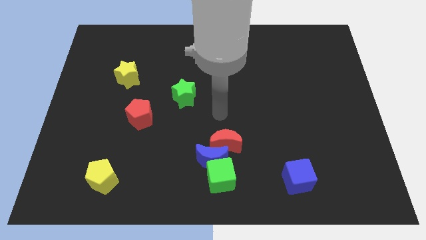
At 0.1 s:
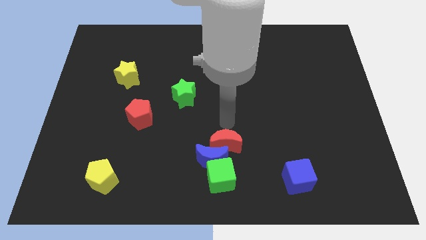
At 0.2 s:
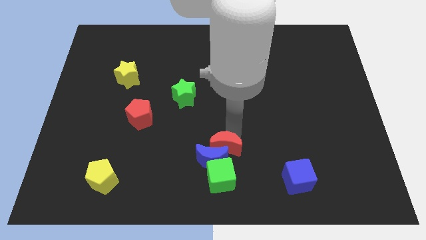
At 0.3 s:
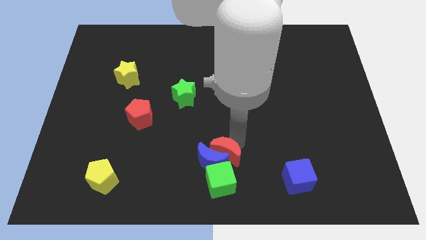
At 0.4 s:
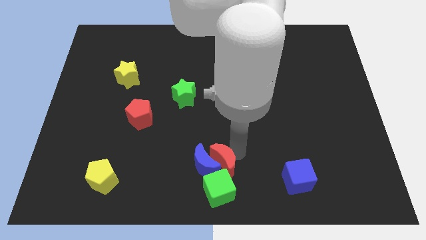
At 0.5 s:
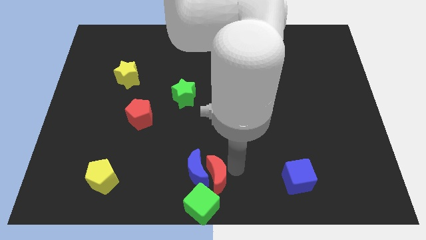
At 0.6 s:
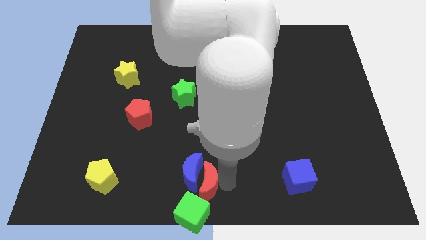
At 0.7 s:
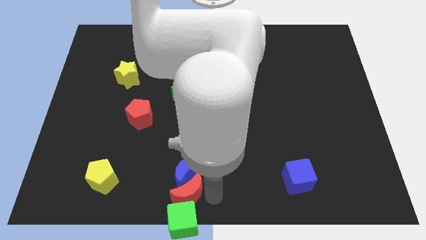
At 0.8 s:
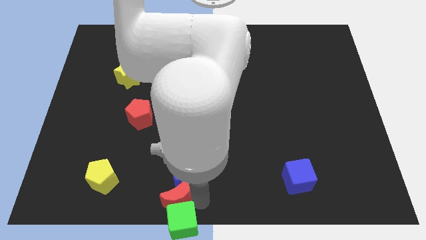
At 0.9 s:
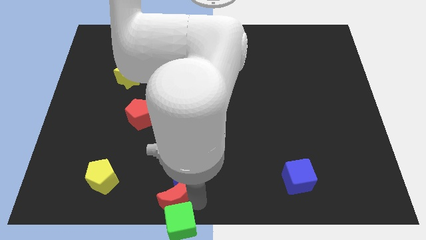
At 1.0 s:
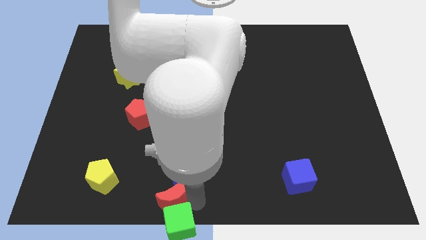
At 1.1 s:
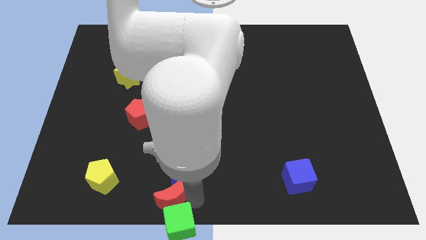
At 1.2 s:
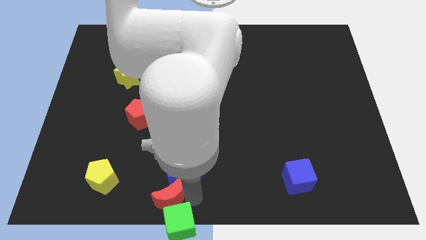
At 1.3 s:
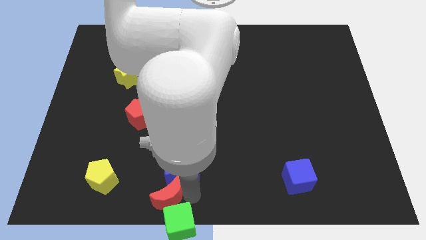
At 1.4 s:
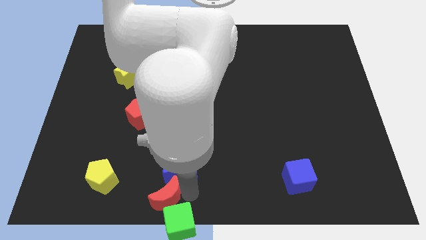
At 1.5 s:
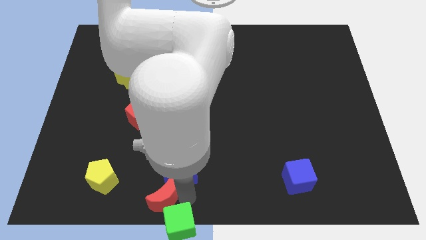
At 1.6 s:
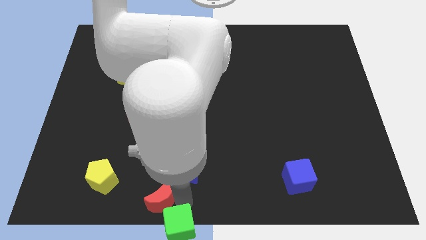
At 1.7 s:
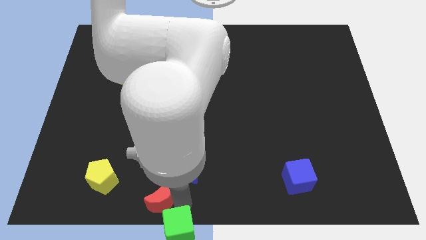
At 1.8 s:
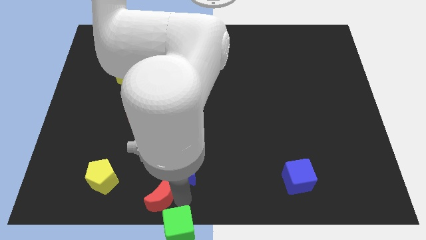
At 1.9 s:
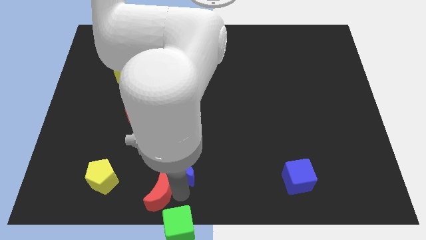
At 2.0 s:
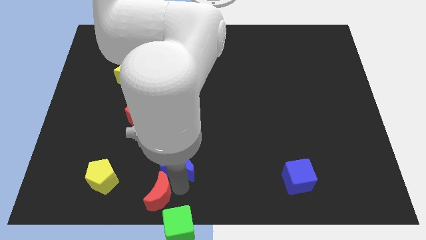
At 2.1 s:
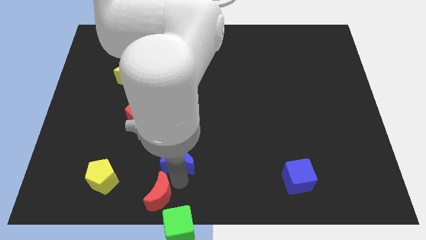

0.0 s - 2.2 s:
pull the blue moon apart from the green cube and red moon

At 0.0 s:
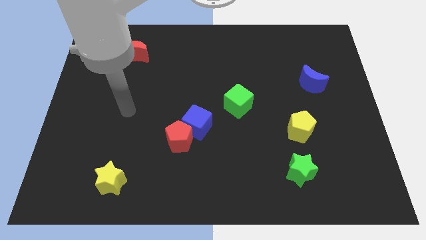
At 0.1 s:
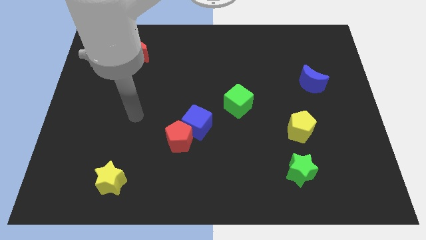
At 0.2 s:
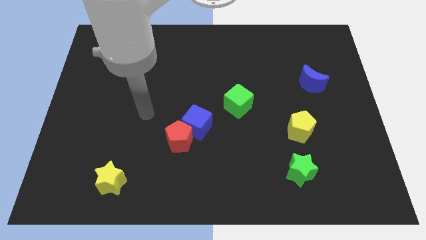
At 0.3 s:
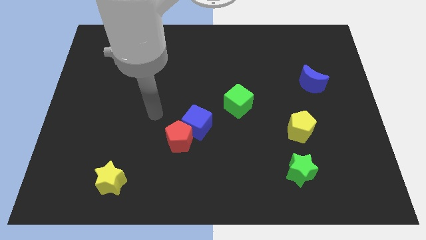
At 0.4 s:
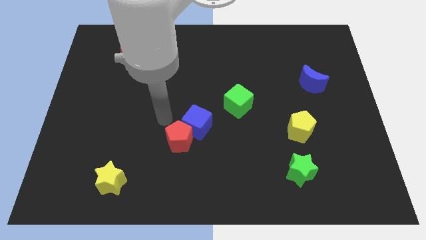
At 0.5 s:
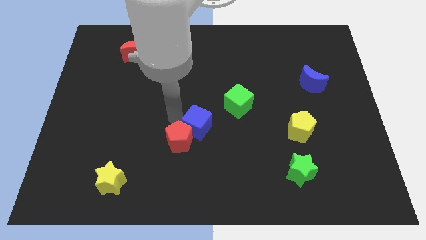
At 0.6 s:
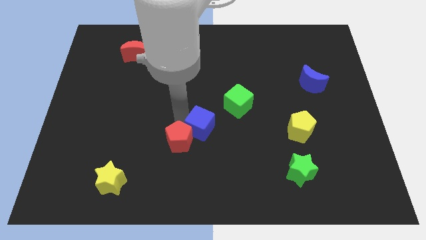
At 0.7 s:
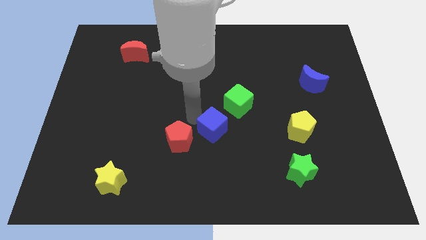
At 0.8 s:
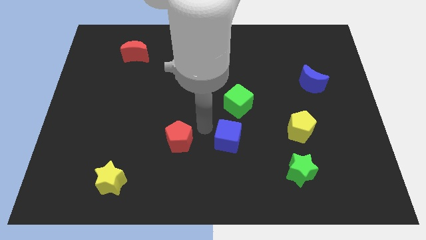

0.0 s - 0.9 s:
separate the red pentagon from the blue cube

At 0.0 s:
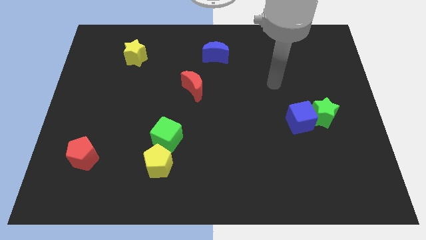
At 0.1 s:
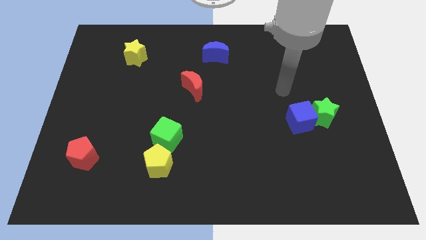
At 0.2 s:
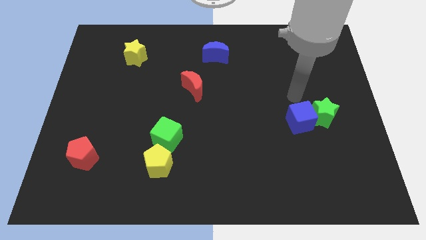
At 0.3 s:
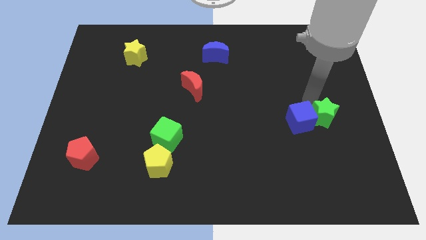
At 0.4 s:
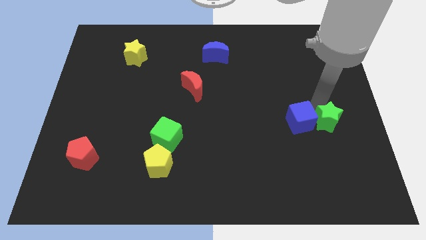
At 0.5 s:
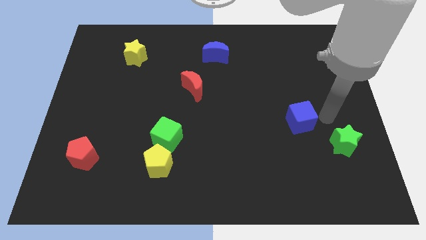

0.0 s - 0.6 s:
move the blue cube away from the green star

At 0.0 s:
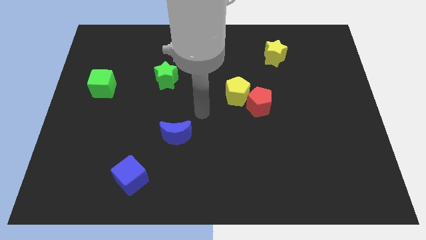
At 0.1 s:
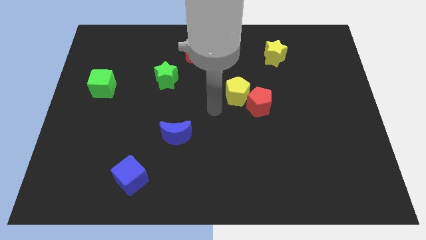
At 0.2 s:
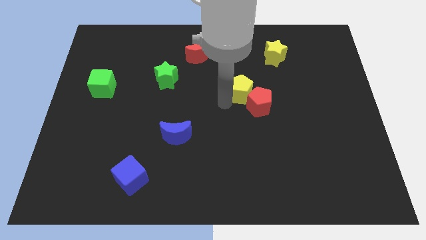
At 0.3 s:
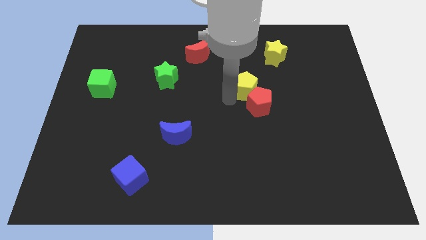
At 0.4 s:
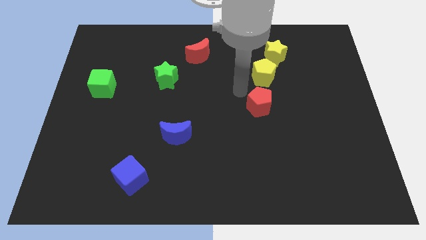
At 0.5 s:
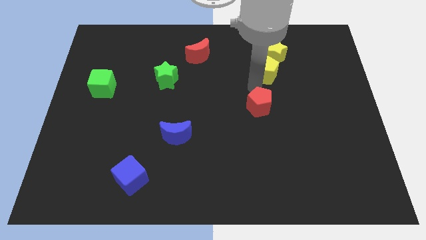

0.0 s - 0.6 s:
move the red pentagon away from the yellow pentagon

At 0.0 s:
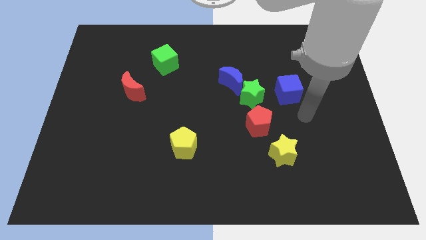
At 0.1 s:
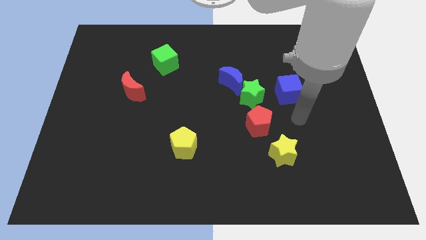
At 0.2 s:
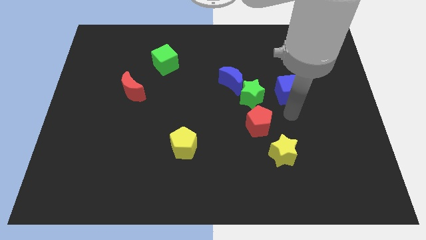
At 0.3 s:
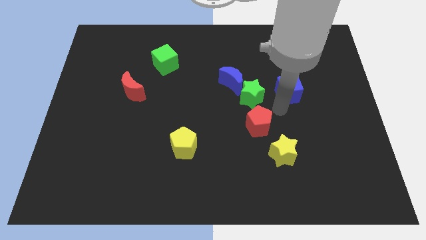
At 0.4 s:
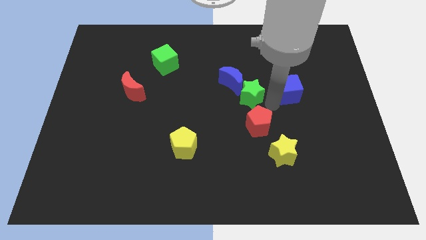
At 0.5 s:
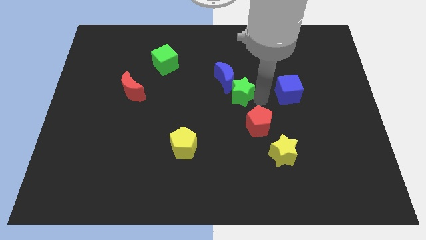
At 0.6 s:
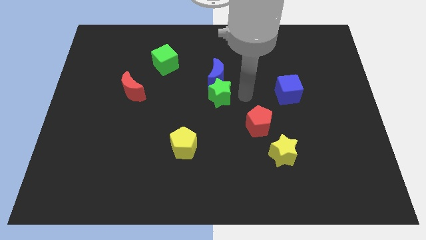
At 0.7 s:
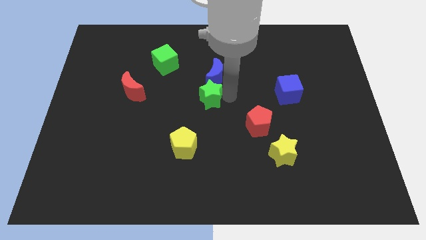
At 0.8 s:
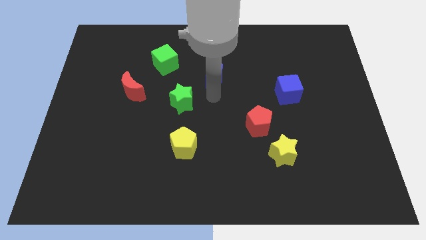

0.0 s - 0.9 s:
separate the blue moon from the green star

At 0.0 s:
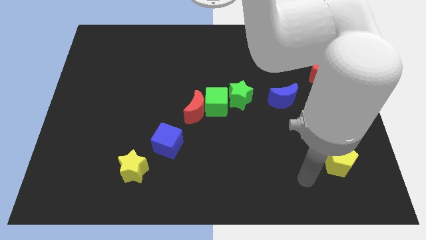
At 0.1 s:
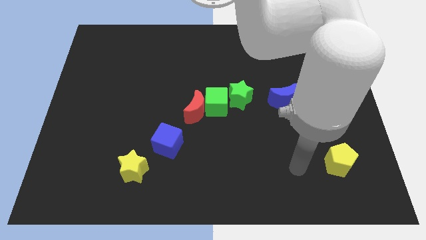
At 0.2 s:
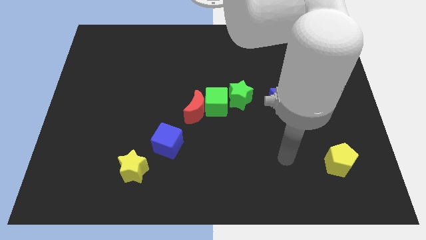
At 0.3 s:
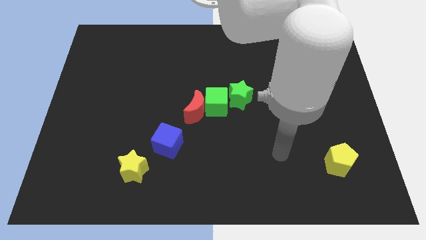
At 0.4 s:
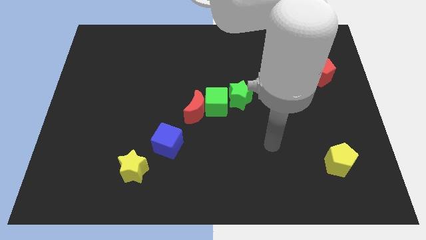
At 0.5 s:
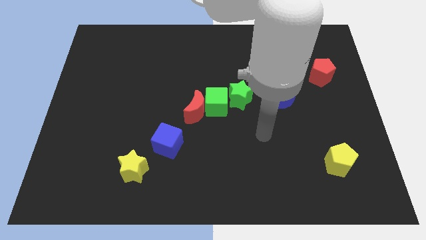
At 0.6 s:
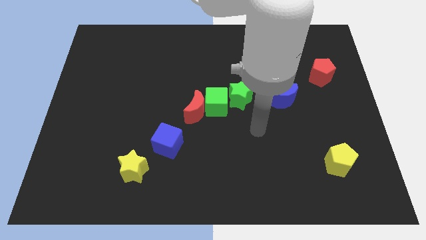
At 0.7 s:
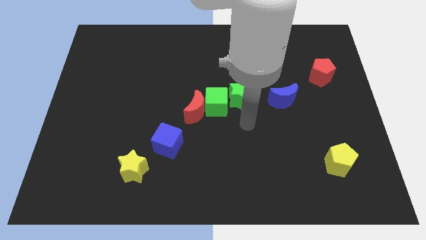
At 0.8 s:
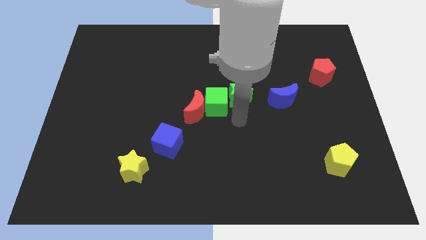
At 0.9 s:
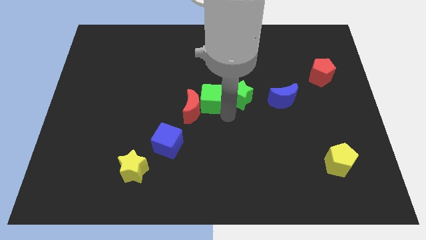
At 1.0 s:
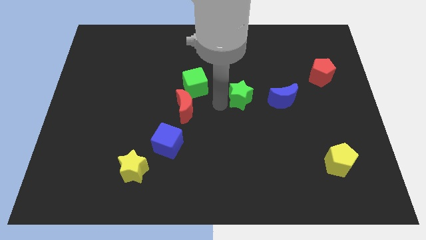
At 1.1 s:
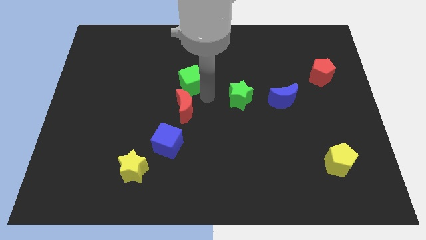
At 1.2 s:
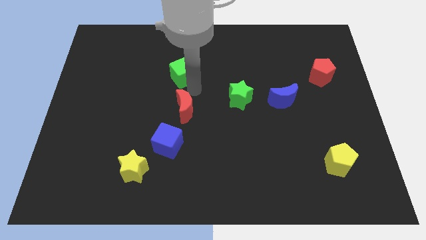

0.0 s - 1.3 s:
separate the red moon from the green cube

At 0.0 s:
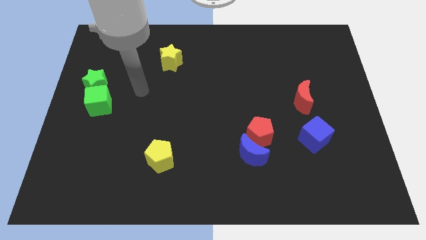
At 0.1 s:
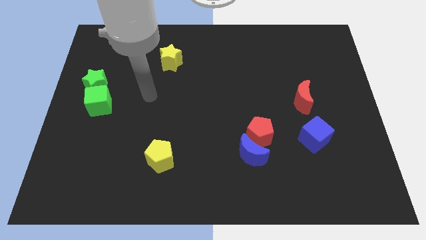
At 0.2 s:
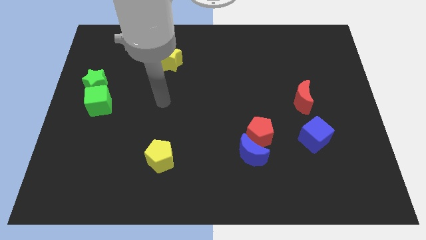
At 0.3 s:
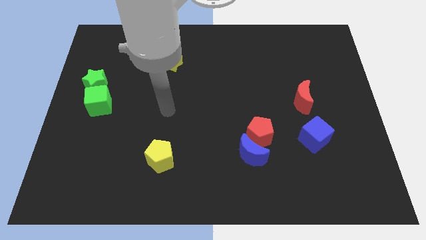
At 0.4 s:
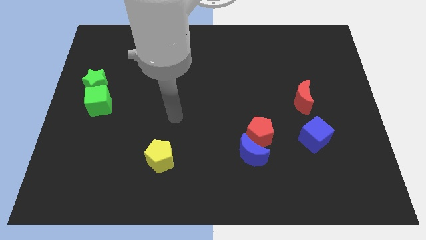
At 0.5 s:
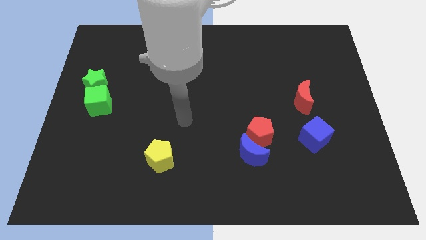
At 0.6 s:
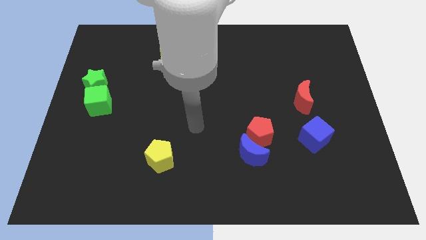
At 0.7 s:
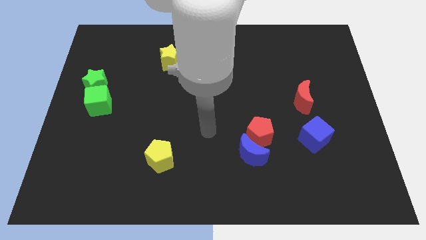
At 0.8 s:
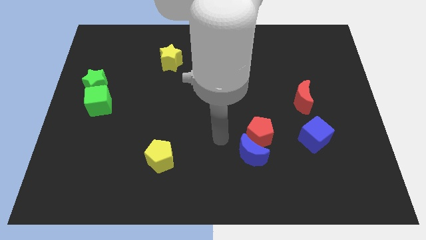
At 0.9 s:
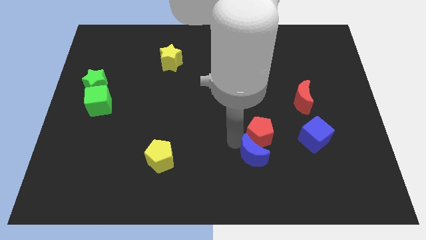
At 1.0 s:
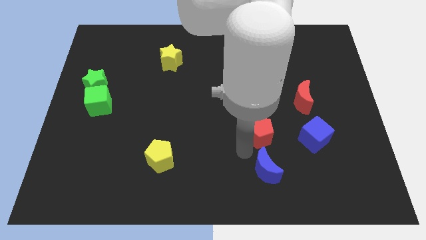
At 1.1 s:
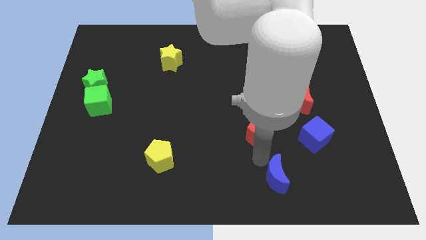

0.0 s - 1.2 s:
separate the red pentagon from the blue moon

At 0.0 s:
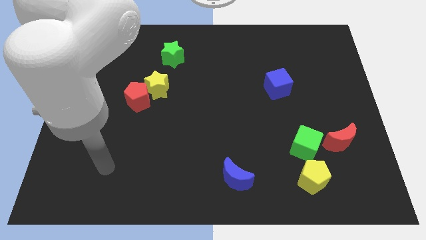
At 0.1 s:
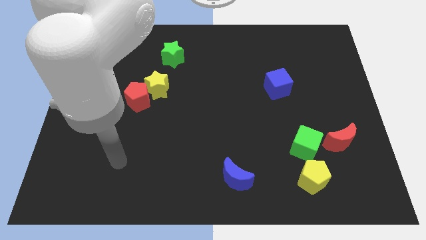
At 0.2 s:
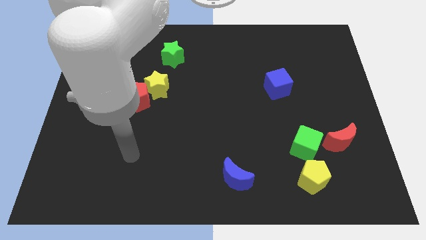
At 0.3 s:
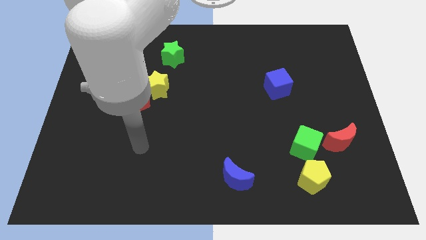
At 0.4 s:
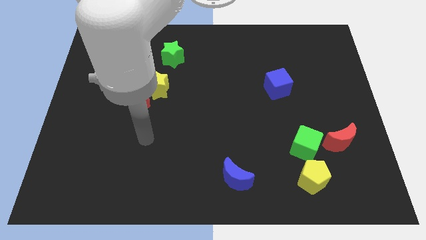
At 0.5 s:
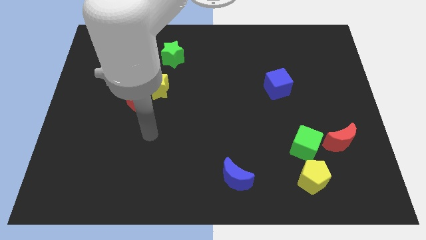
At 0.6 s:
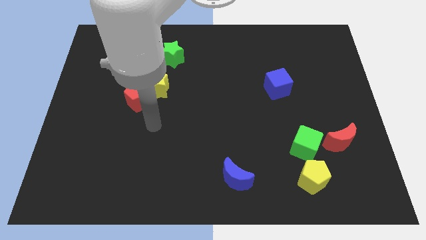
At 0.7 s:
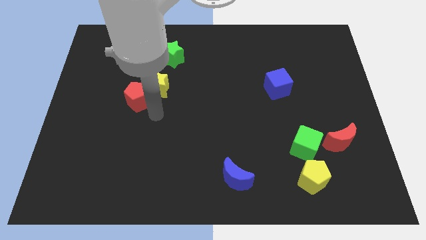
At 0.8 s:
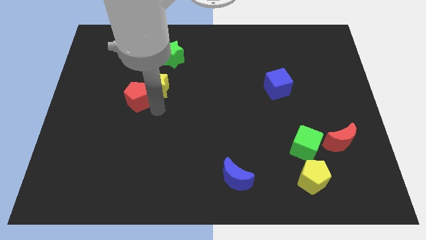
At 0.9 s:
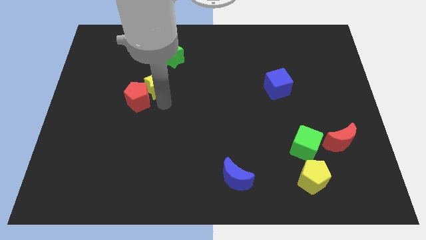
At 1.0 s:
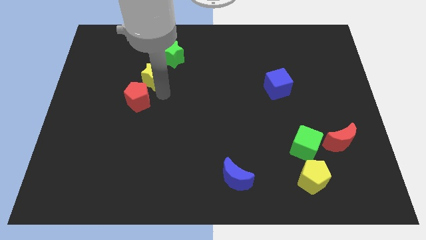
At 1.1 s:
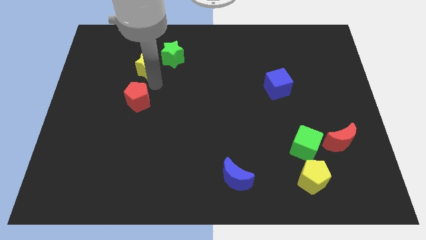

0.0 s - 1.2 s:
pull the red pentagon apart from the yellow star

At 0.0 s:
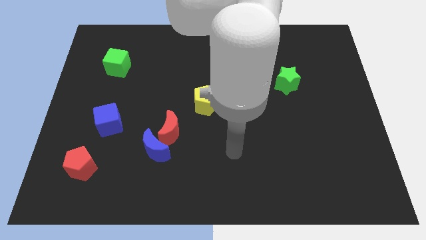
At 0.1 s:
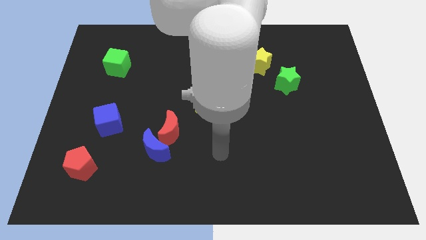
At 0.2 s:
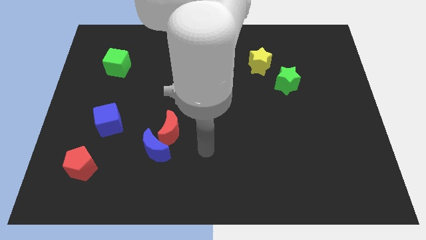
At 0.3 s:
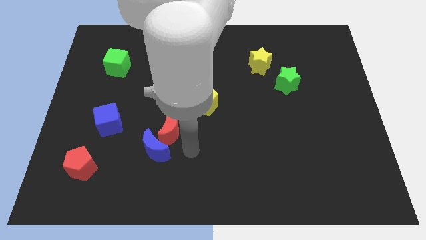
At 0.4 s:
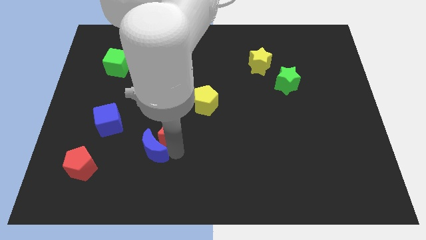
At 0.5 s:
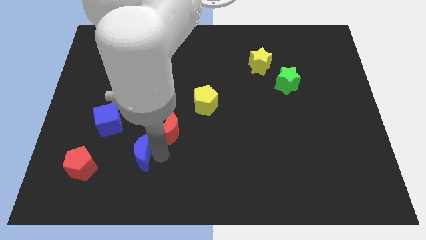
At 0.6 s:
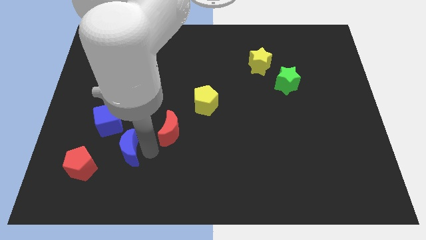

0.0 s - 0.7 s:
separate the red moon from the blue moon
